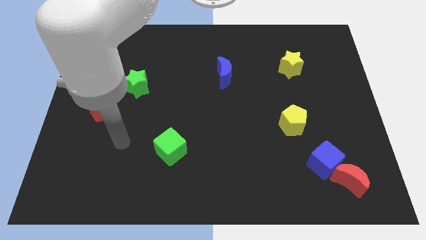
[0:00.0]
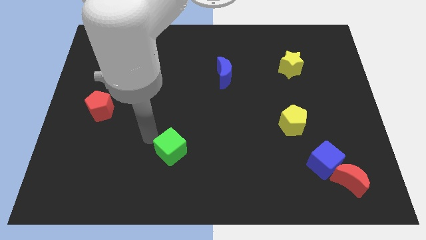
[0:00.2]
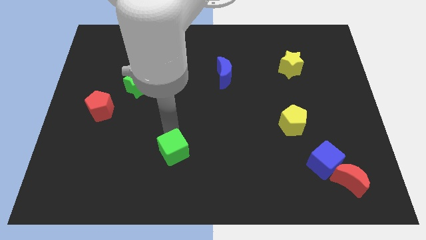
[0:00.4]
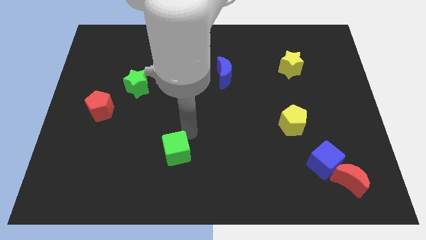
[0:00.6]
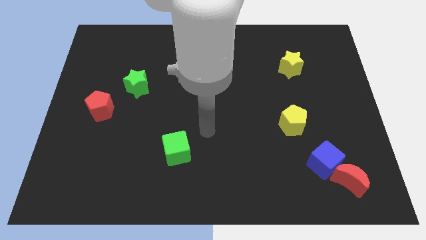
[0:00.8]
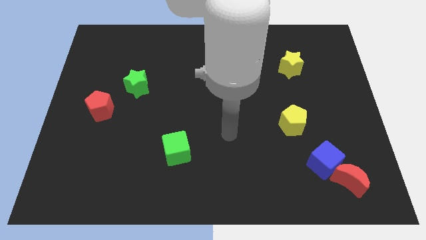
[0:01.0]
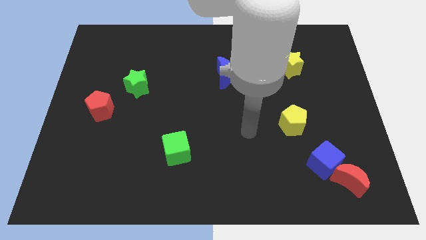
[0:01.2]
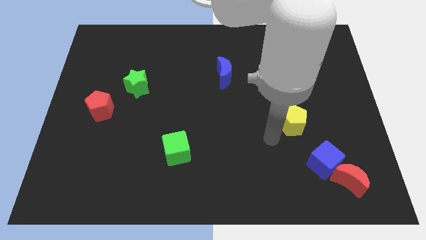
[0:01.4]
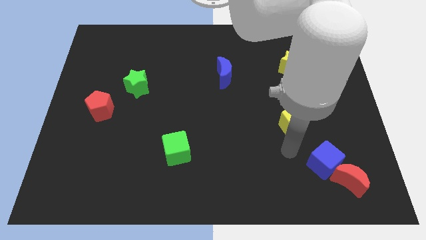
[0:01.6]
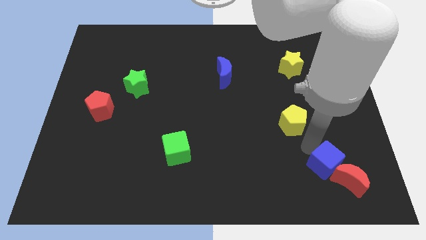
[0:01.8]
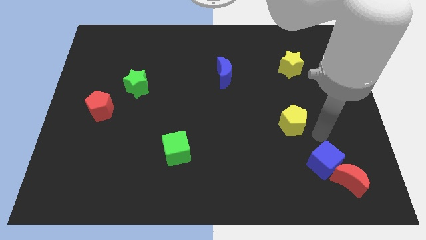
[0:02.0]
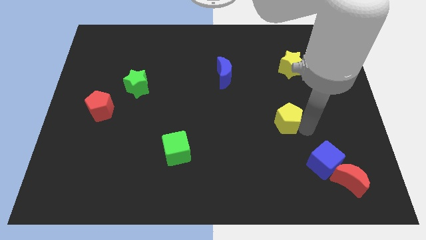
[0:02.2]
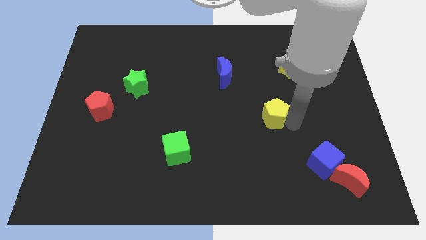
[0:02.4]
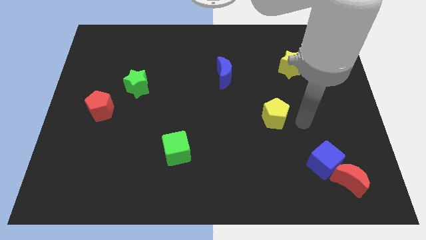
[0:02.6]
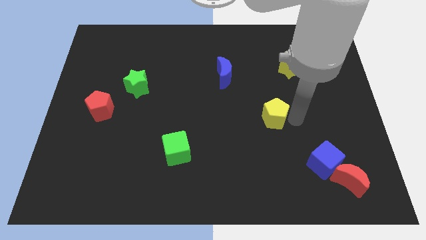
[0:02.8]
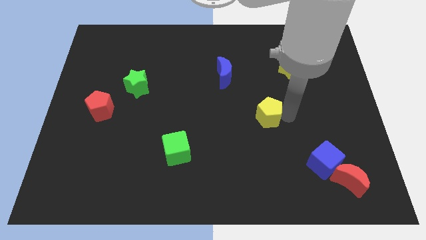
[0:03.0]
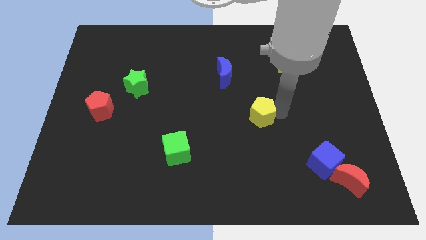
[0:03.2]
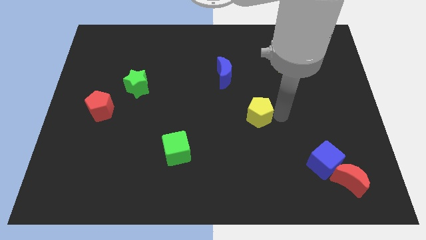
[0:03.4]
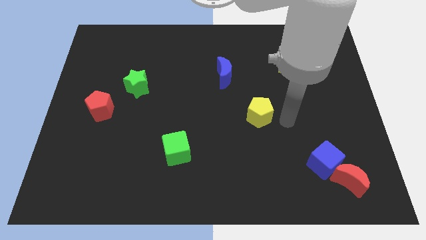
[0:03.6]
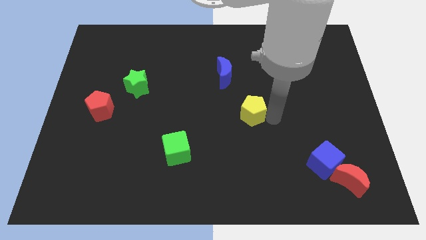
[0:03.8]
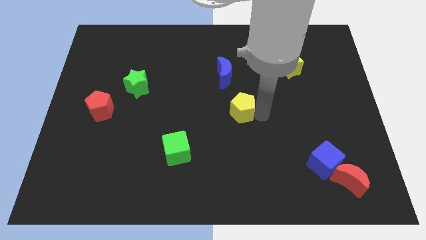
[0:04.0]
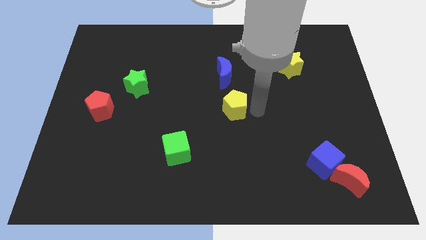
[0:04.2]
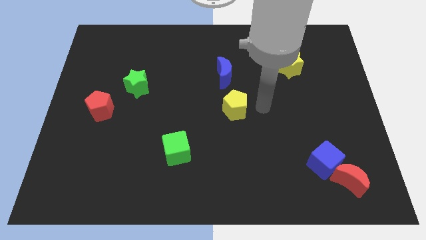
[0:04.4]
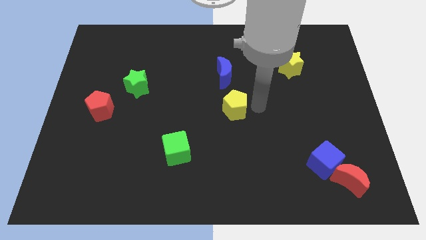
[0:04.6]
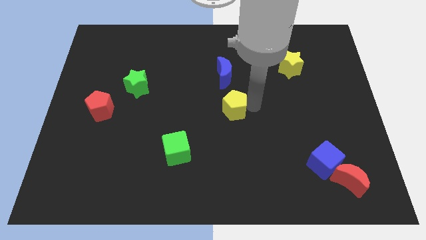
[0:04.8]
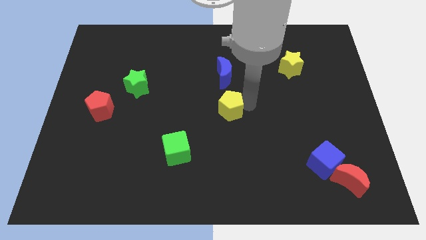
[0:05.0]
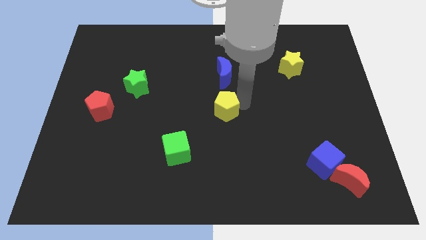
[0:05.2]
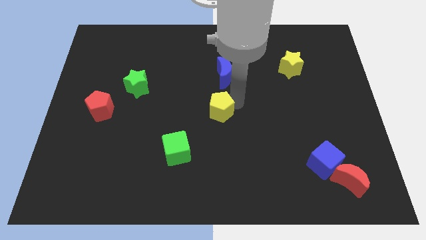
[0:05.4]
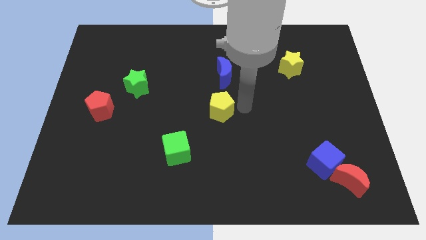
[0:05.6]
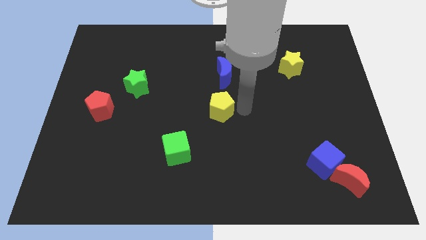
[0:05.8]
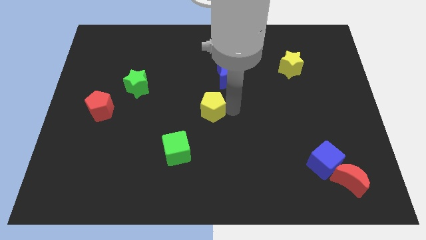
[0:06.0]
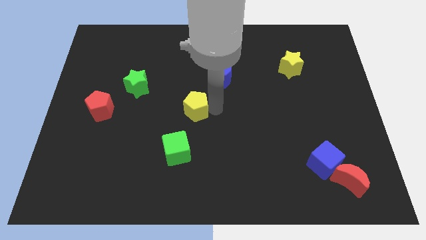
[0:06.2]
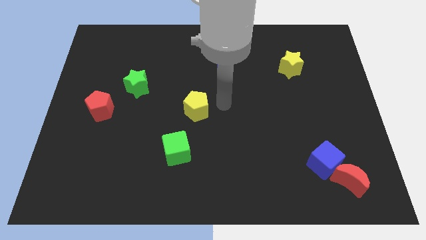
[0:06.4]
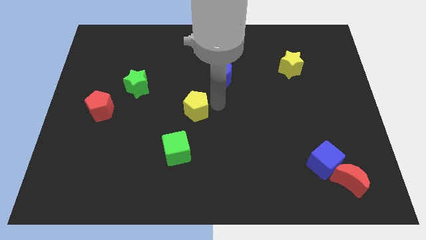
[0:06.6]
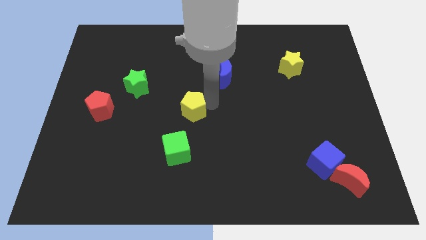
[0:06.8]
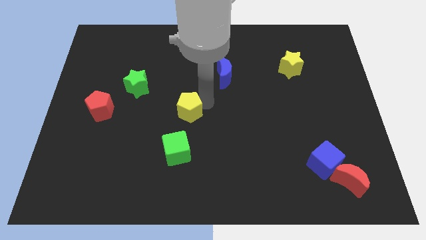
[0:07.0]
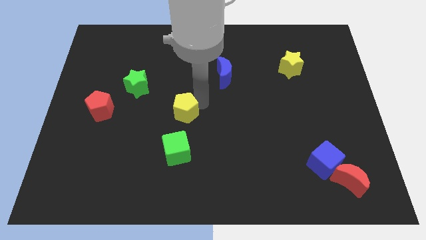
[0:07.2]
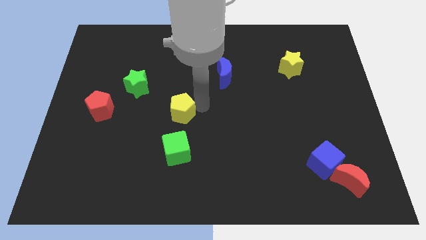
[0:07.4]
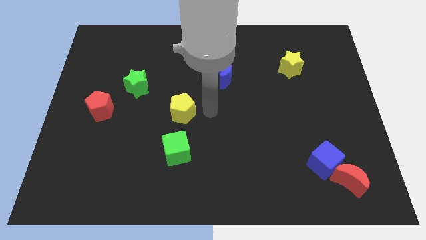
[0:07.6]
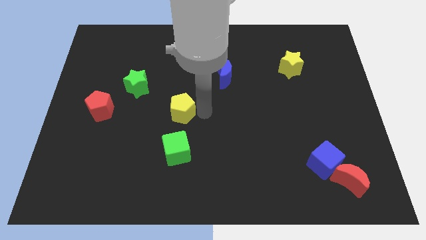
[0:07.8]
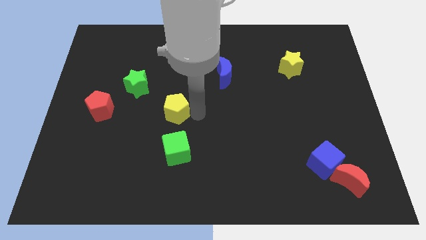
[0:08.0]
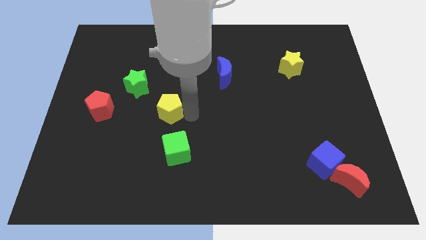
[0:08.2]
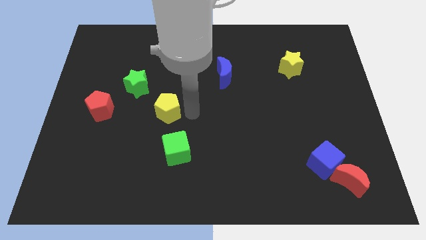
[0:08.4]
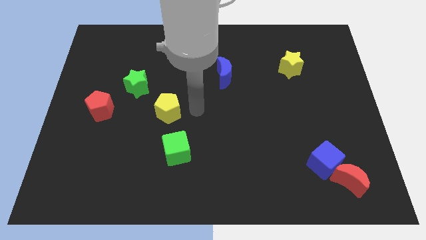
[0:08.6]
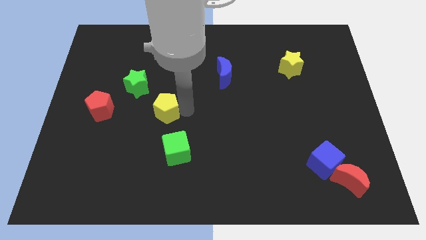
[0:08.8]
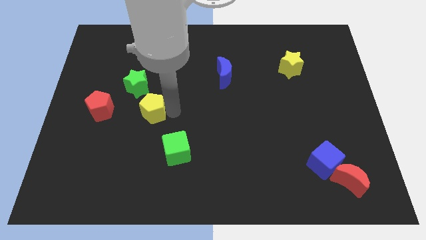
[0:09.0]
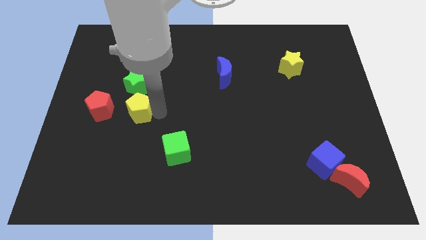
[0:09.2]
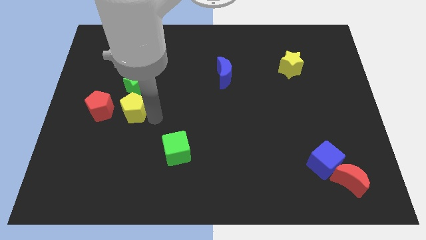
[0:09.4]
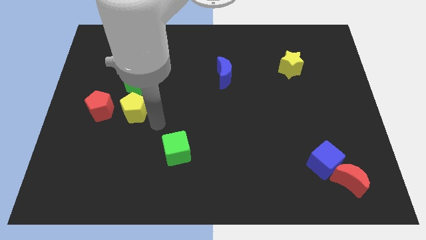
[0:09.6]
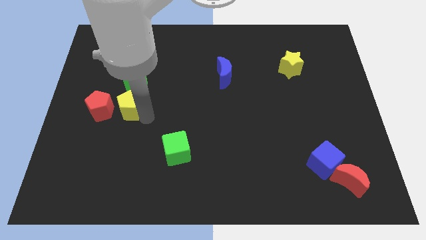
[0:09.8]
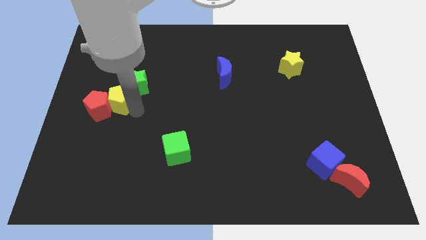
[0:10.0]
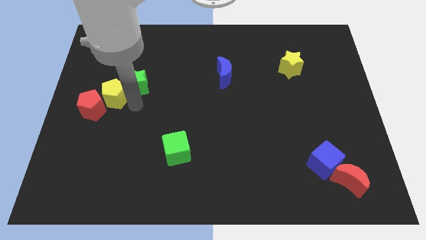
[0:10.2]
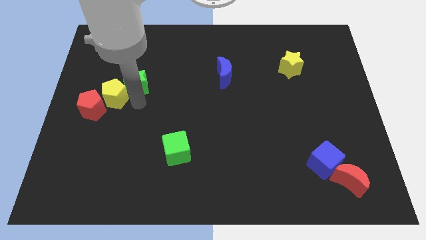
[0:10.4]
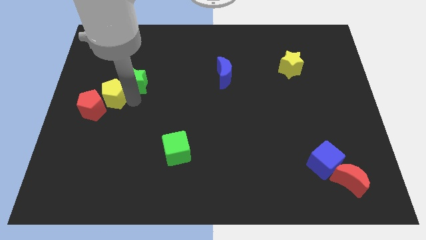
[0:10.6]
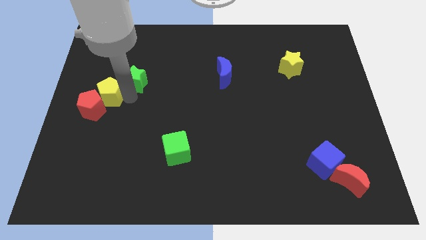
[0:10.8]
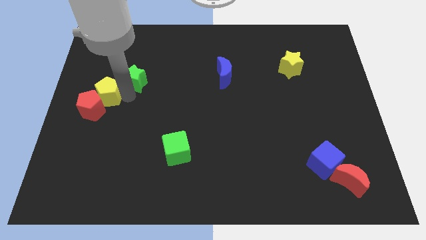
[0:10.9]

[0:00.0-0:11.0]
put the yellow pentagon to the center left

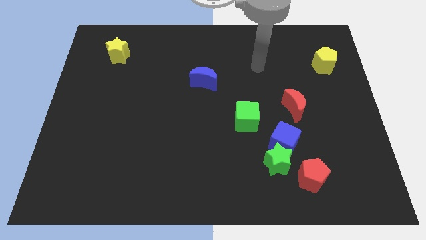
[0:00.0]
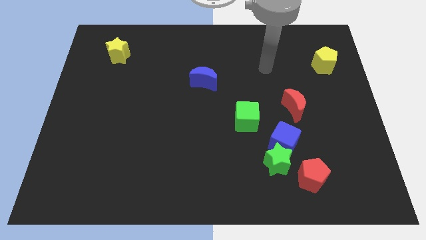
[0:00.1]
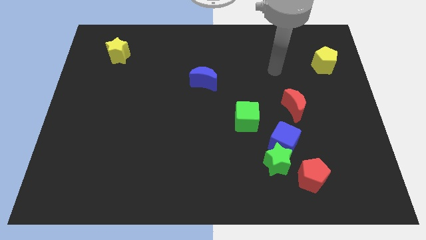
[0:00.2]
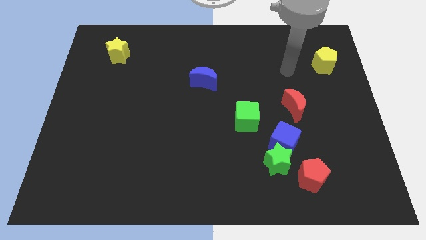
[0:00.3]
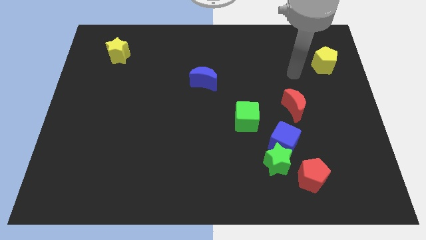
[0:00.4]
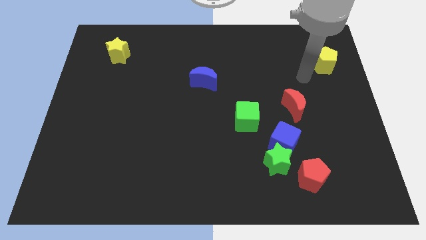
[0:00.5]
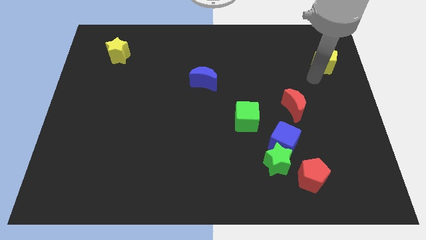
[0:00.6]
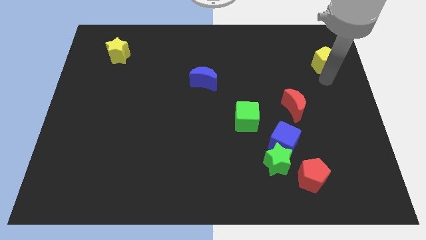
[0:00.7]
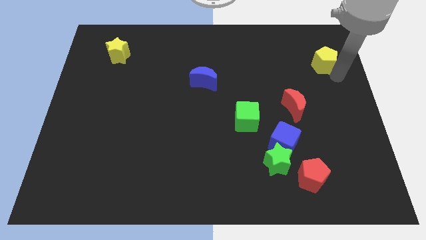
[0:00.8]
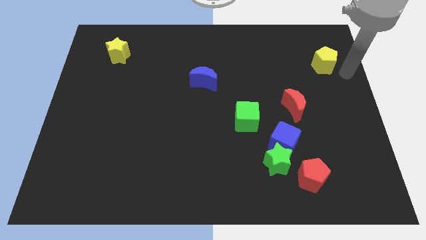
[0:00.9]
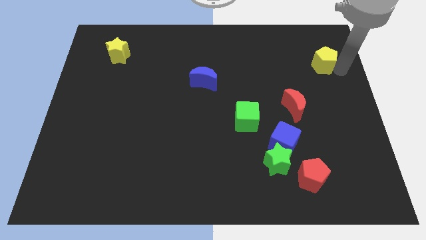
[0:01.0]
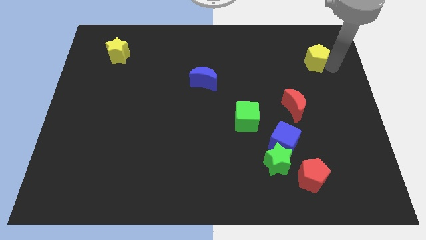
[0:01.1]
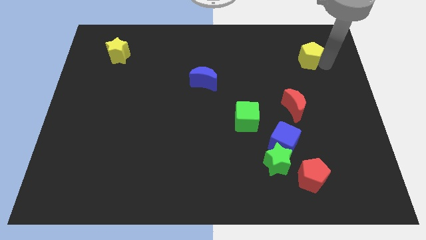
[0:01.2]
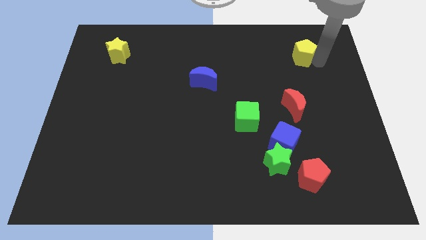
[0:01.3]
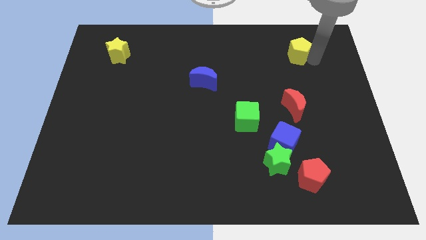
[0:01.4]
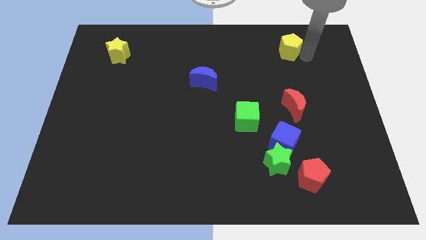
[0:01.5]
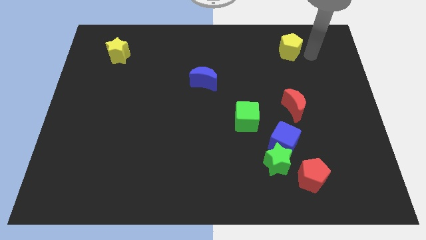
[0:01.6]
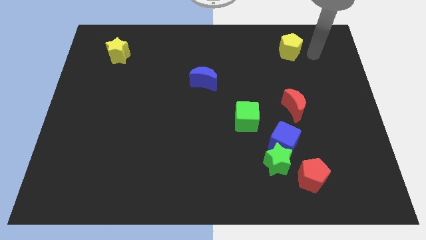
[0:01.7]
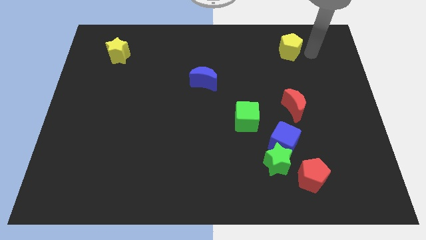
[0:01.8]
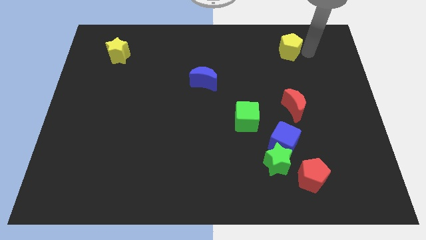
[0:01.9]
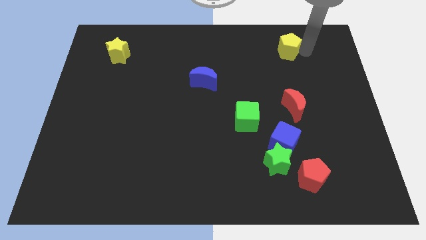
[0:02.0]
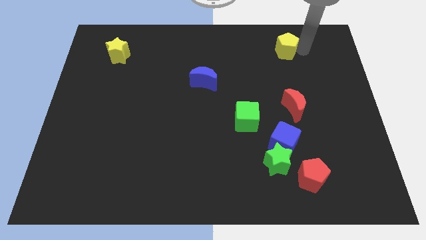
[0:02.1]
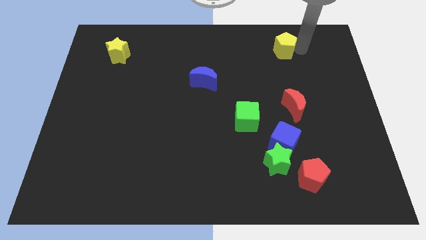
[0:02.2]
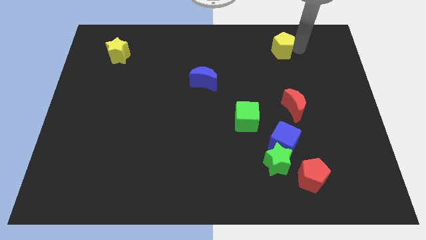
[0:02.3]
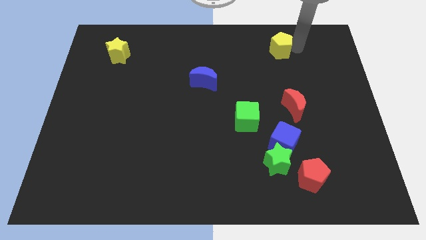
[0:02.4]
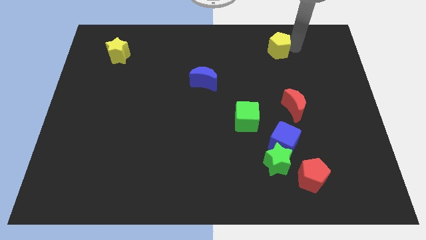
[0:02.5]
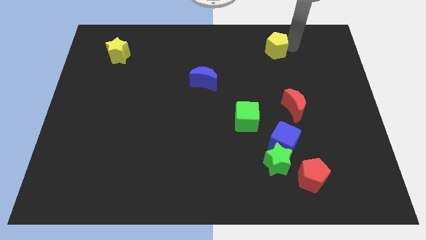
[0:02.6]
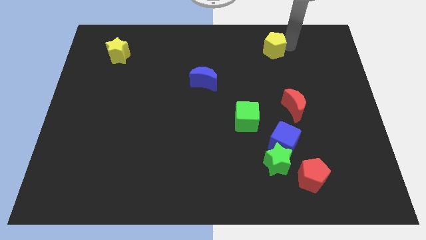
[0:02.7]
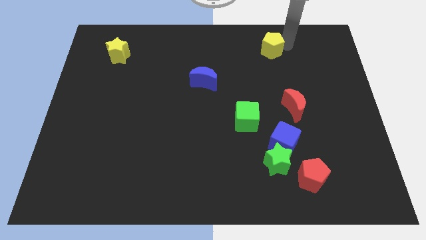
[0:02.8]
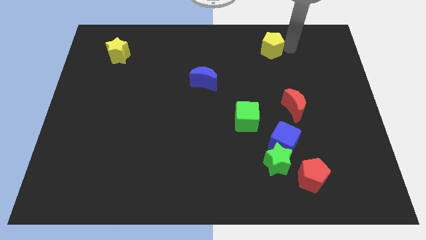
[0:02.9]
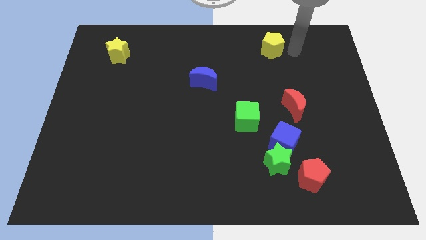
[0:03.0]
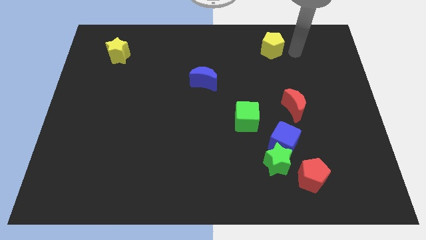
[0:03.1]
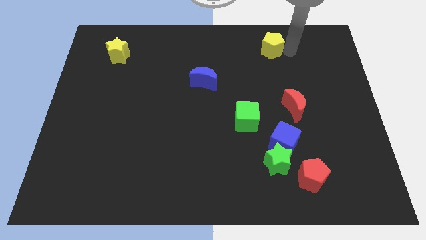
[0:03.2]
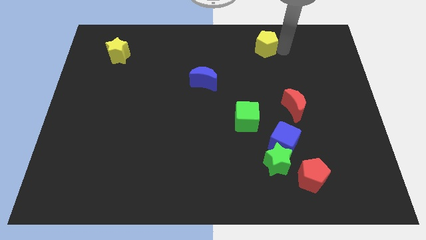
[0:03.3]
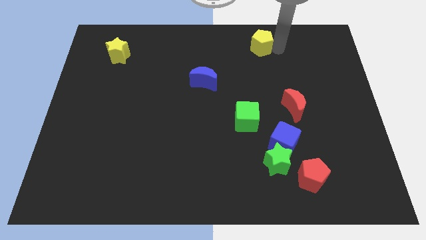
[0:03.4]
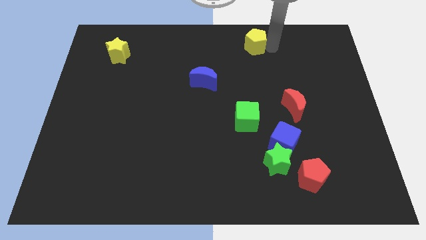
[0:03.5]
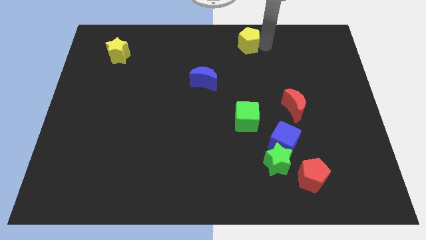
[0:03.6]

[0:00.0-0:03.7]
slide the yellow pentagon to the towards your base
